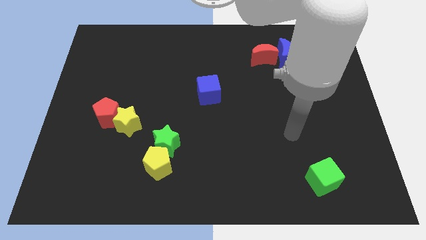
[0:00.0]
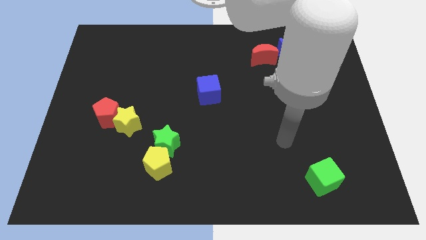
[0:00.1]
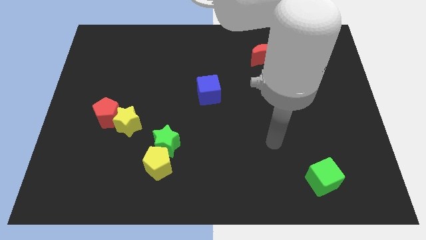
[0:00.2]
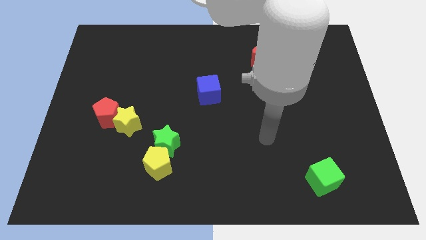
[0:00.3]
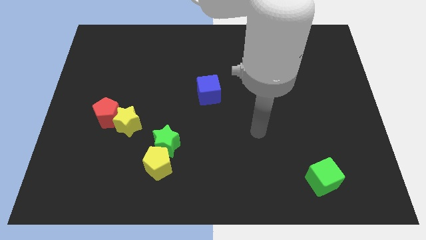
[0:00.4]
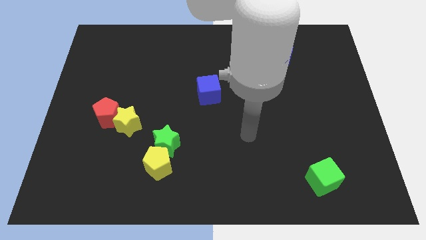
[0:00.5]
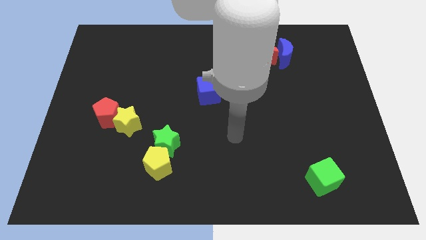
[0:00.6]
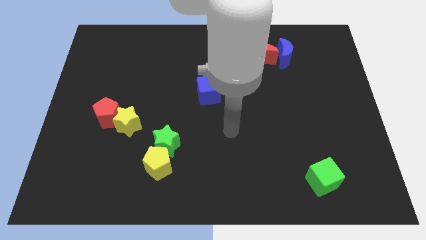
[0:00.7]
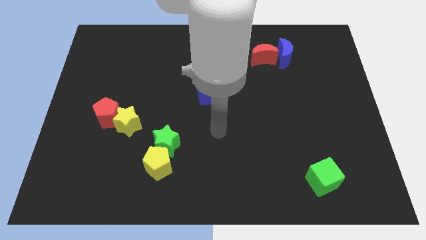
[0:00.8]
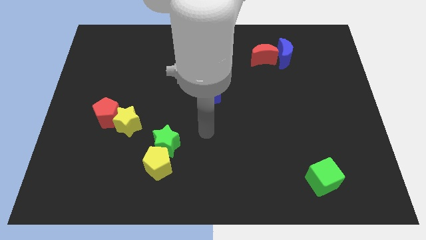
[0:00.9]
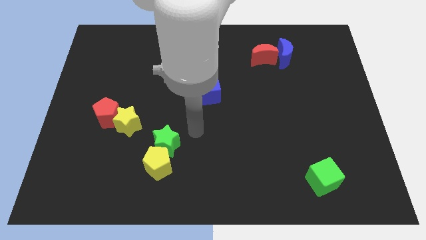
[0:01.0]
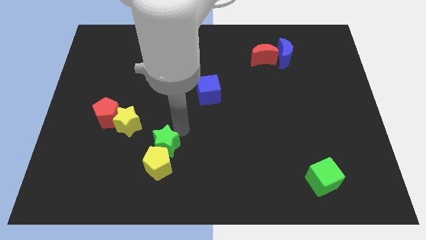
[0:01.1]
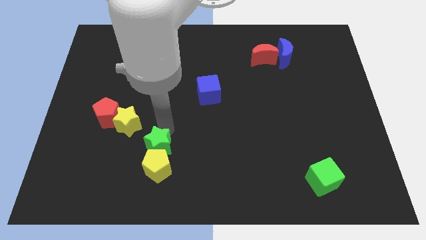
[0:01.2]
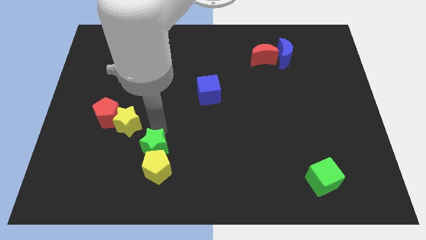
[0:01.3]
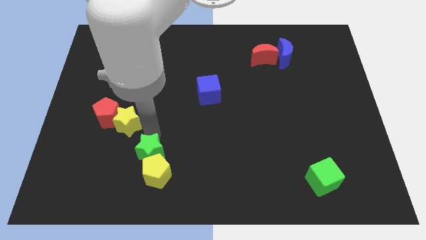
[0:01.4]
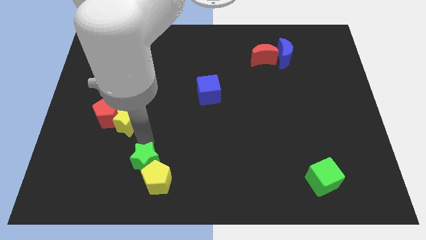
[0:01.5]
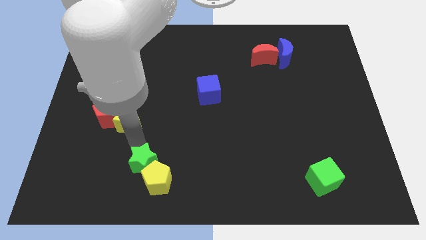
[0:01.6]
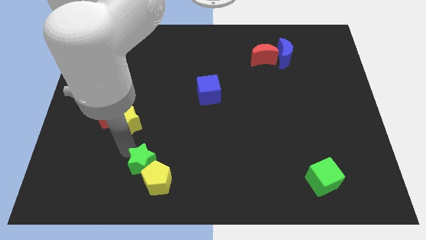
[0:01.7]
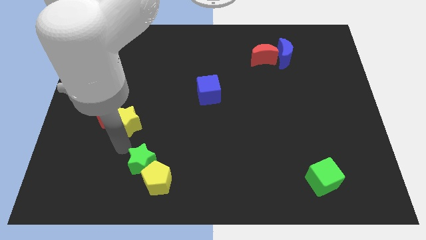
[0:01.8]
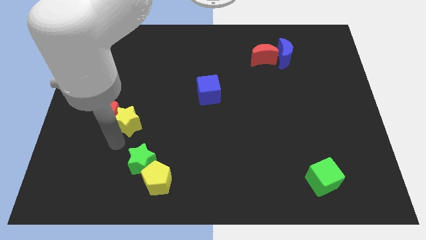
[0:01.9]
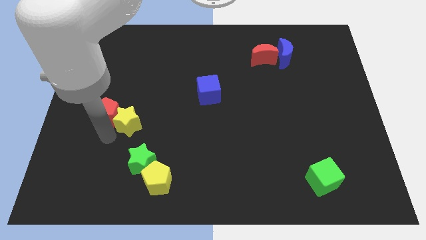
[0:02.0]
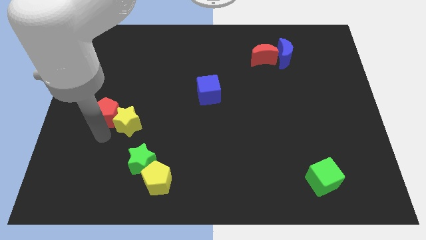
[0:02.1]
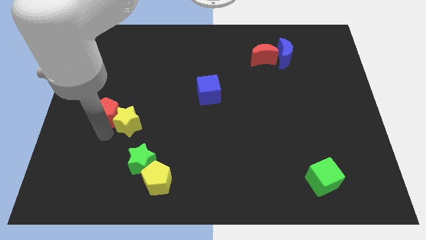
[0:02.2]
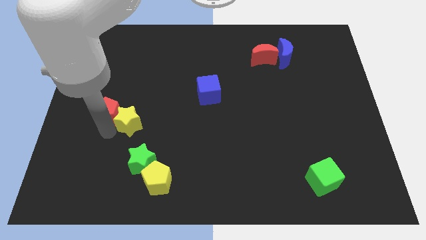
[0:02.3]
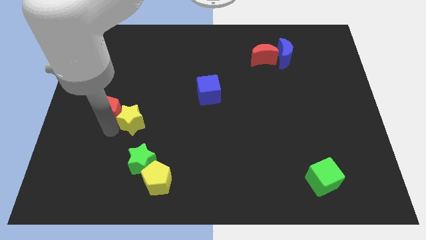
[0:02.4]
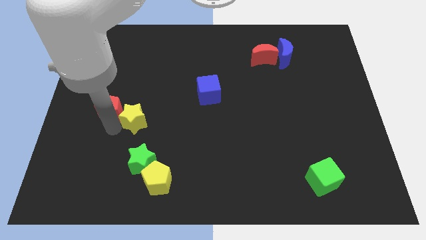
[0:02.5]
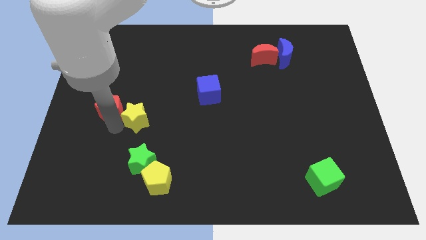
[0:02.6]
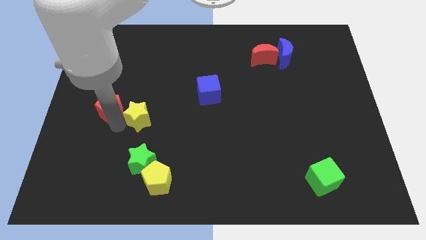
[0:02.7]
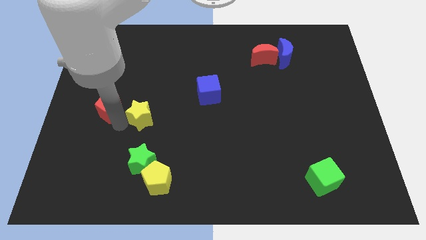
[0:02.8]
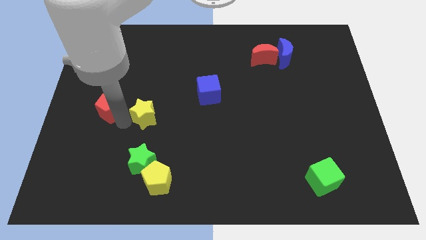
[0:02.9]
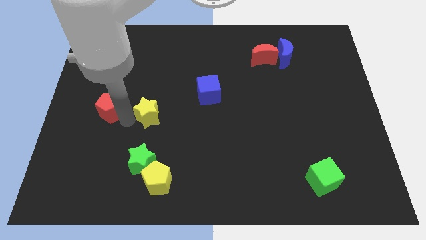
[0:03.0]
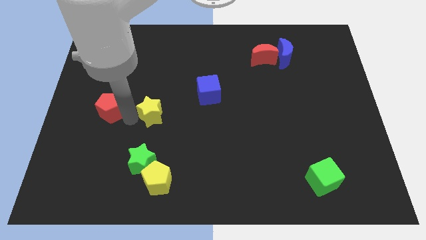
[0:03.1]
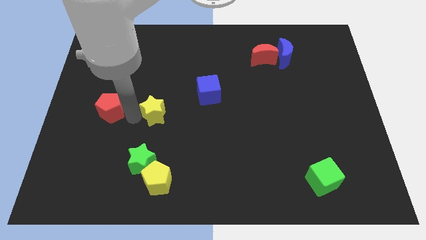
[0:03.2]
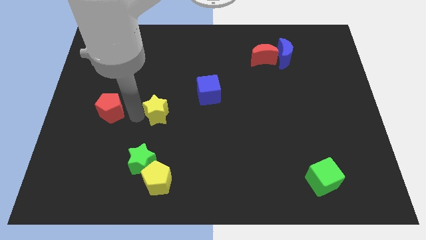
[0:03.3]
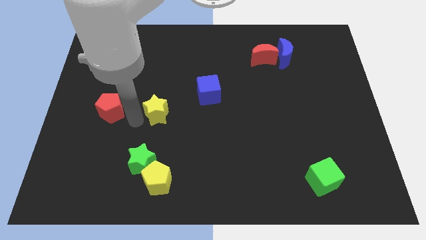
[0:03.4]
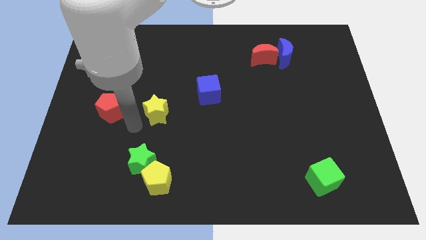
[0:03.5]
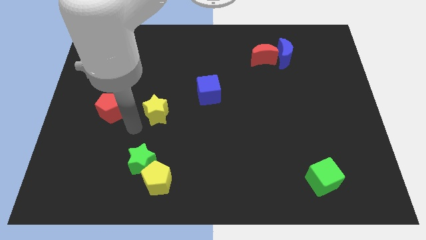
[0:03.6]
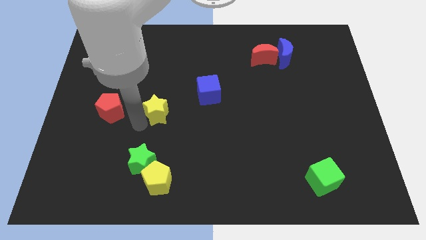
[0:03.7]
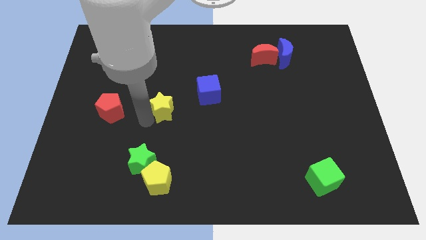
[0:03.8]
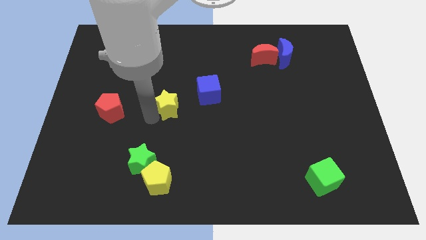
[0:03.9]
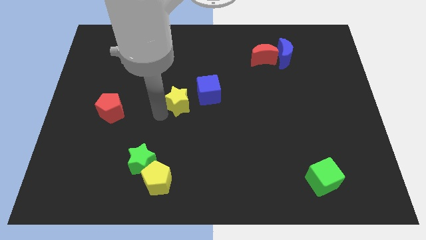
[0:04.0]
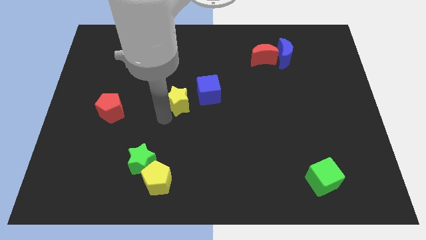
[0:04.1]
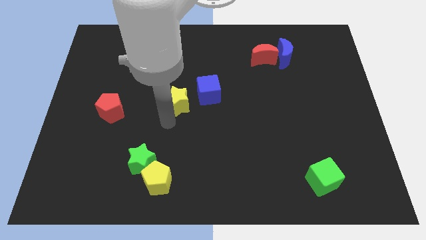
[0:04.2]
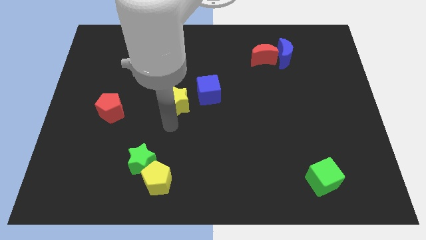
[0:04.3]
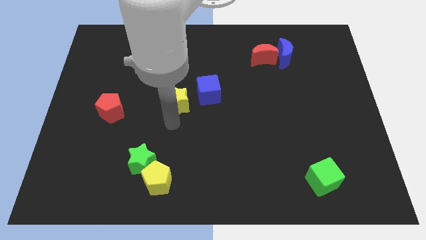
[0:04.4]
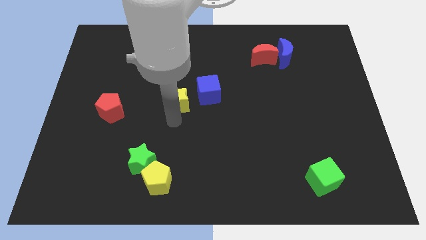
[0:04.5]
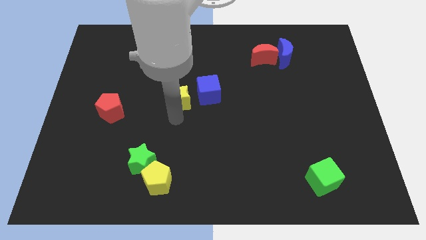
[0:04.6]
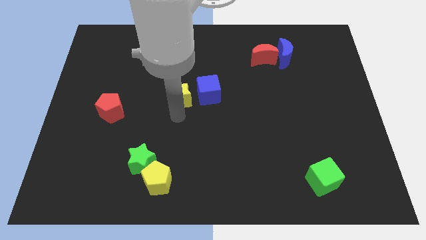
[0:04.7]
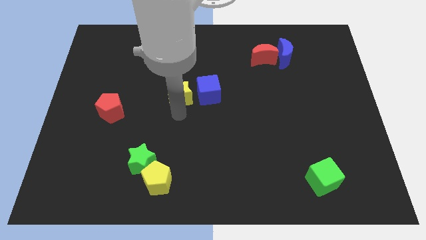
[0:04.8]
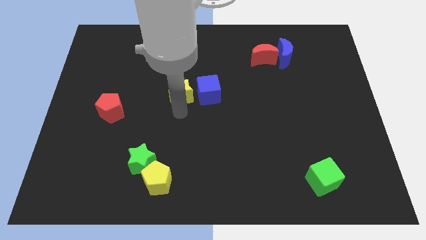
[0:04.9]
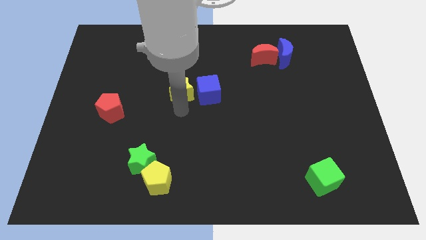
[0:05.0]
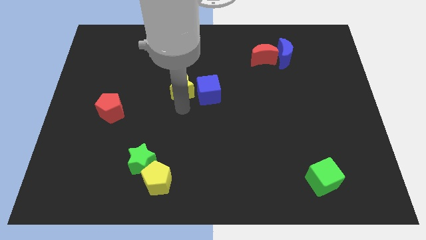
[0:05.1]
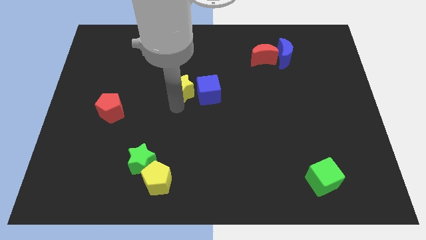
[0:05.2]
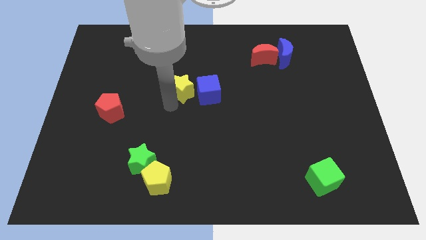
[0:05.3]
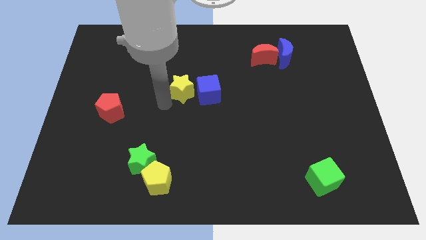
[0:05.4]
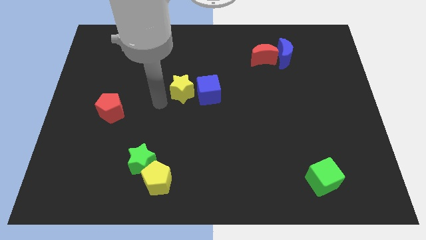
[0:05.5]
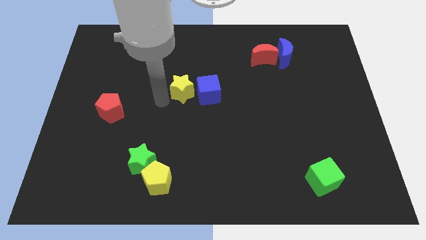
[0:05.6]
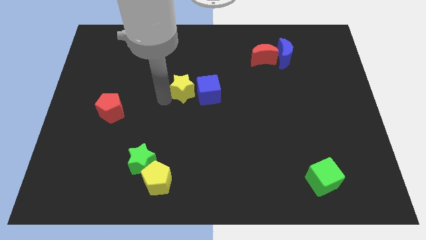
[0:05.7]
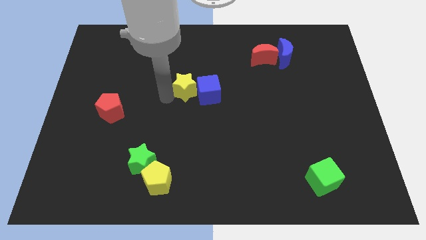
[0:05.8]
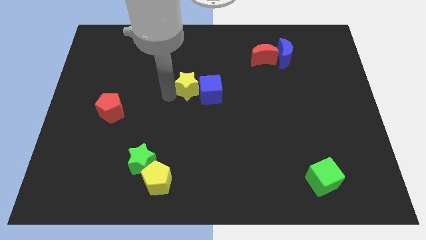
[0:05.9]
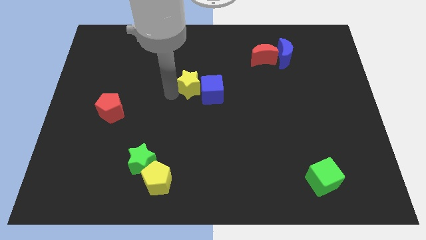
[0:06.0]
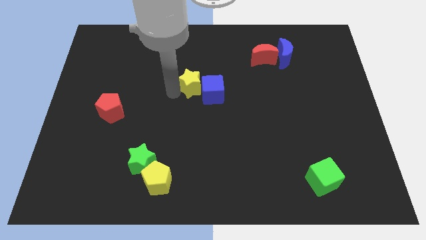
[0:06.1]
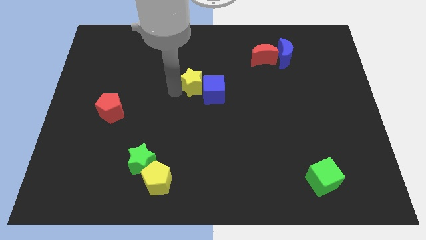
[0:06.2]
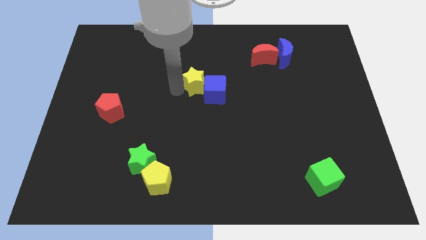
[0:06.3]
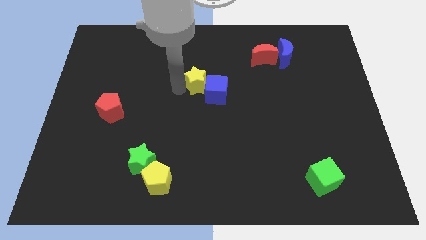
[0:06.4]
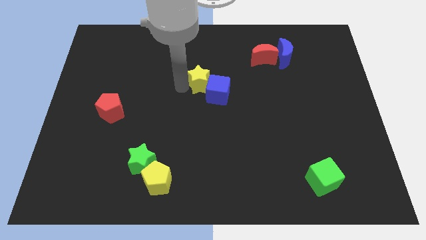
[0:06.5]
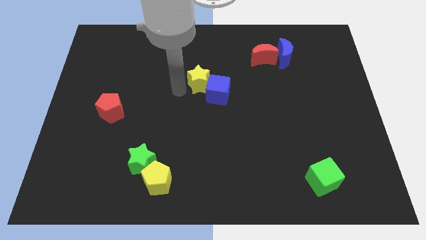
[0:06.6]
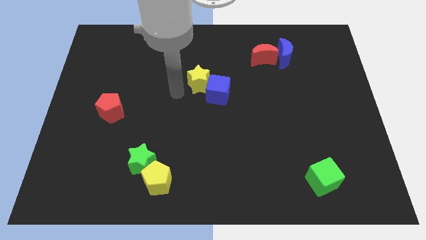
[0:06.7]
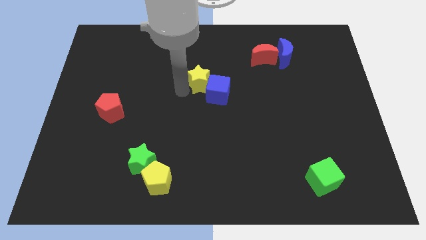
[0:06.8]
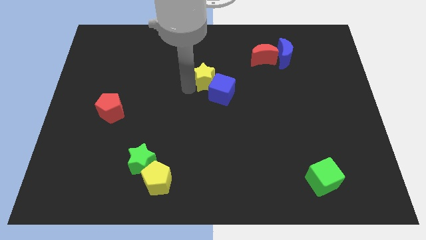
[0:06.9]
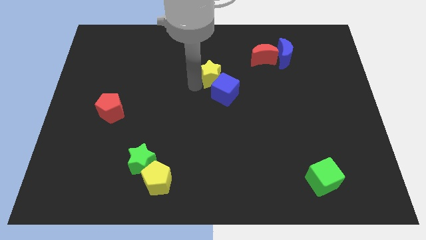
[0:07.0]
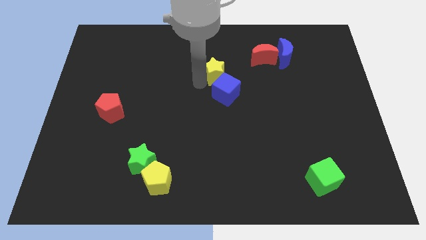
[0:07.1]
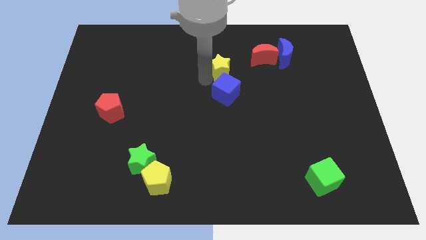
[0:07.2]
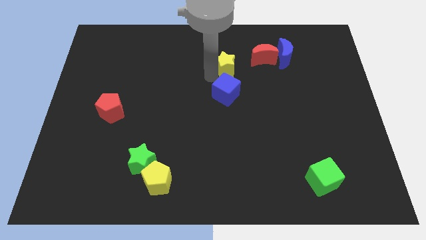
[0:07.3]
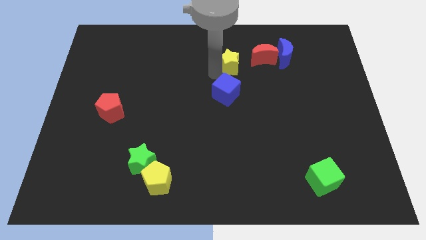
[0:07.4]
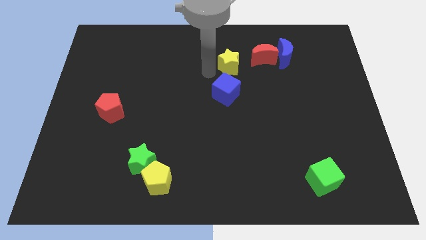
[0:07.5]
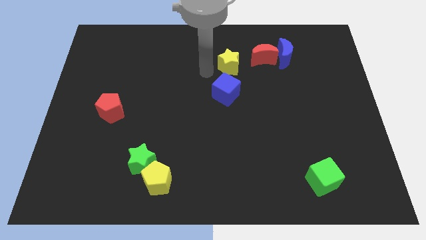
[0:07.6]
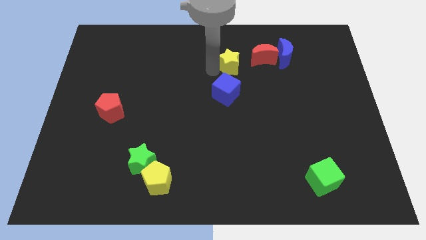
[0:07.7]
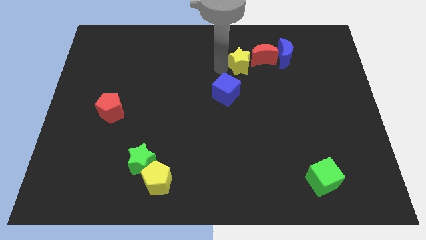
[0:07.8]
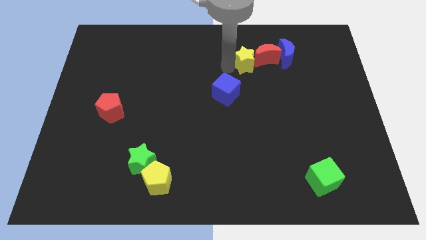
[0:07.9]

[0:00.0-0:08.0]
move the yellow star close to the red moon
